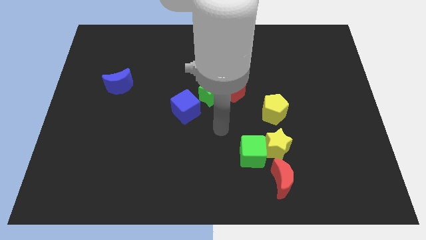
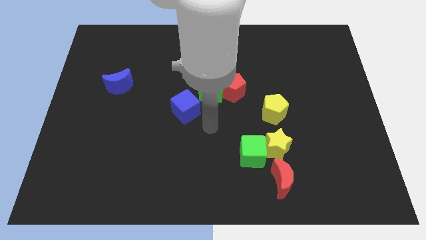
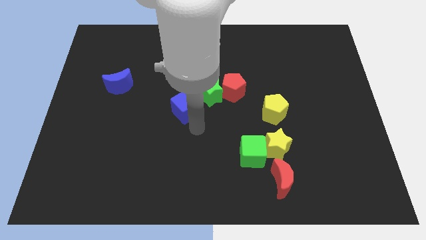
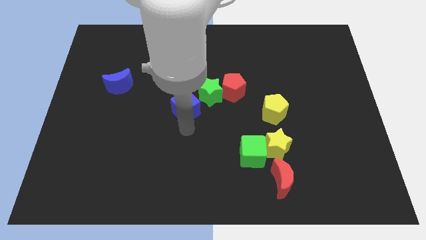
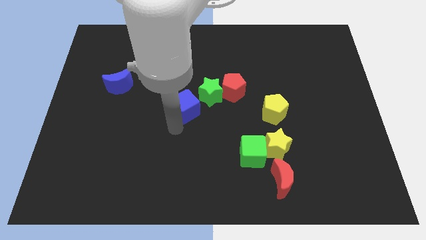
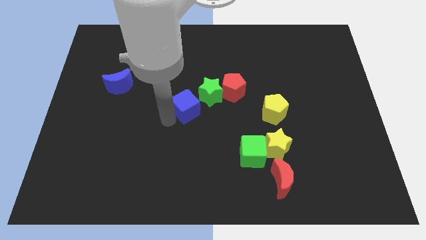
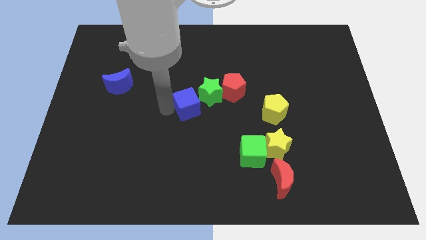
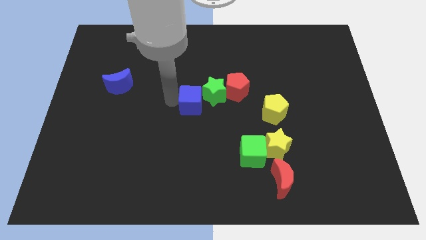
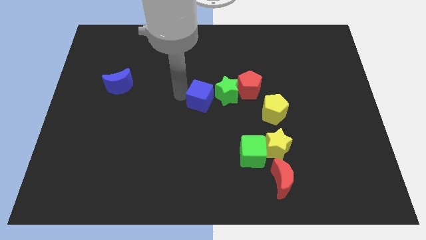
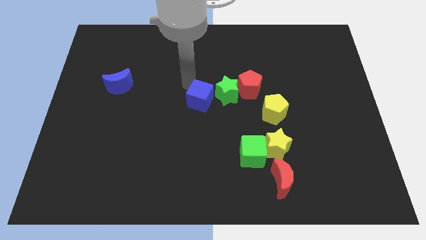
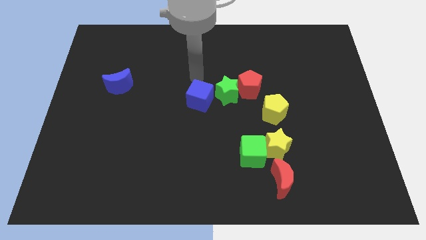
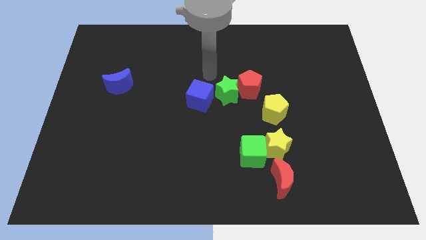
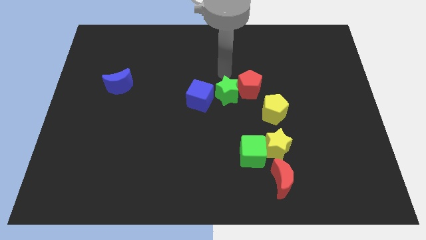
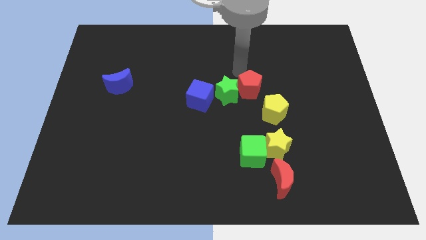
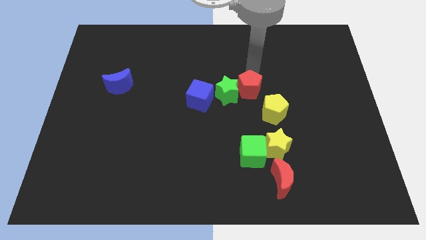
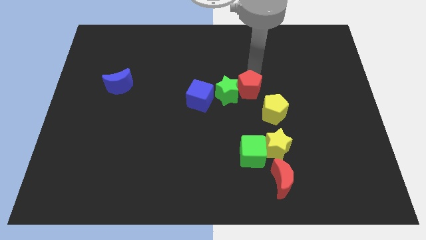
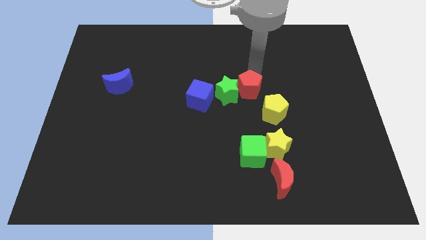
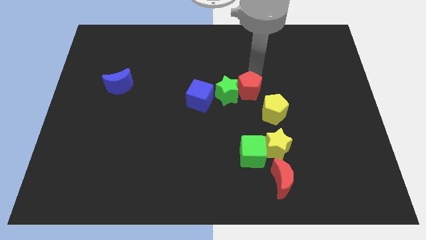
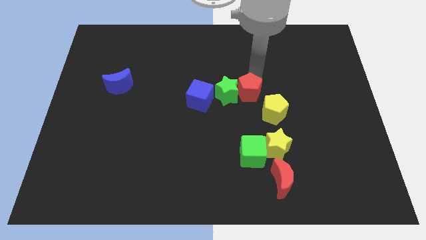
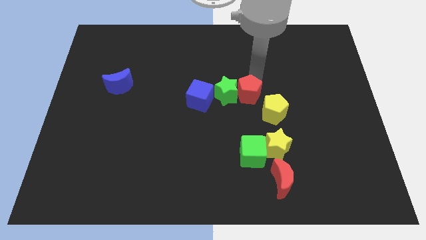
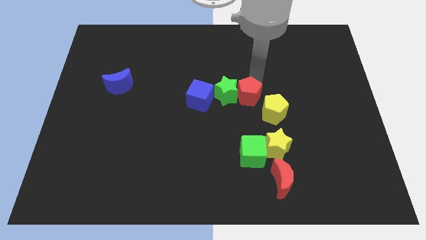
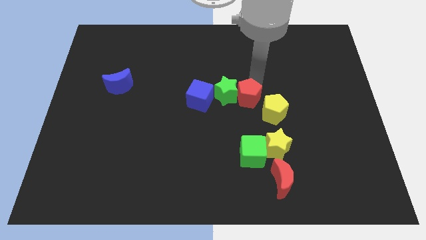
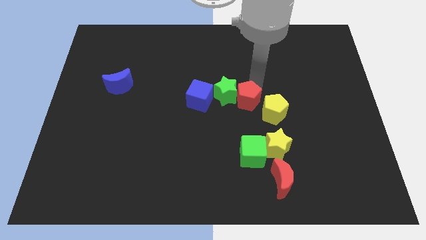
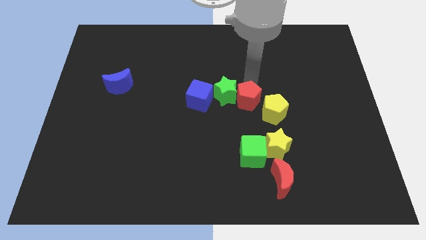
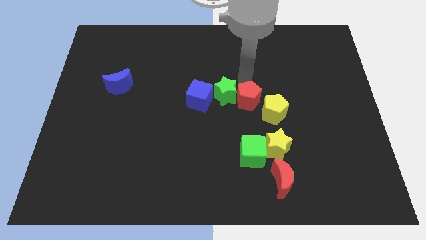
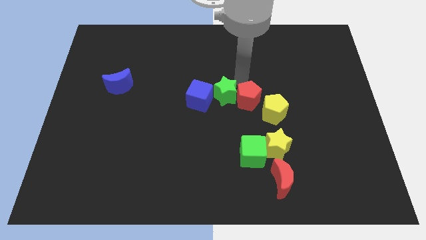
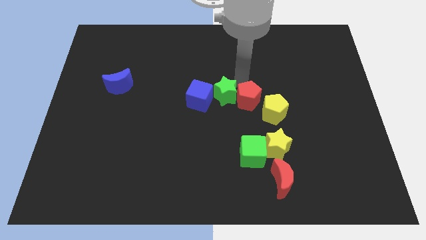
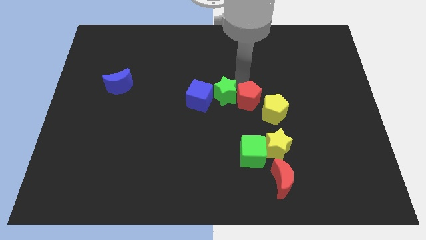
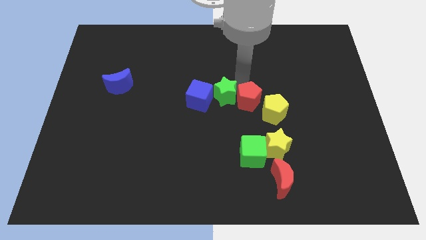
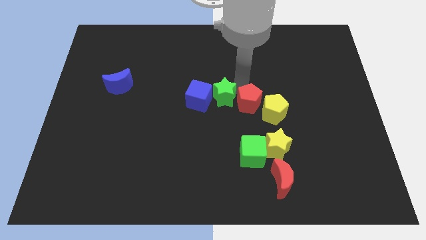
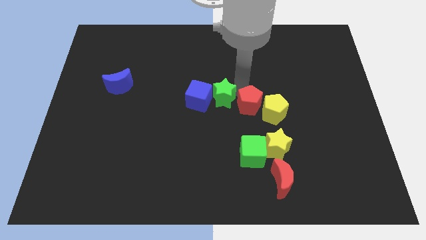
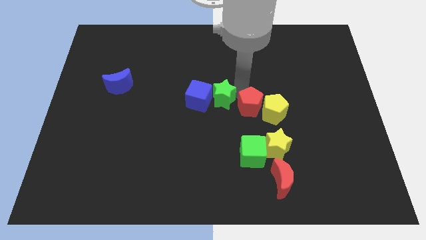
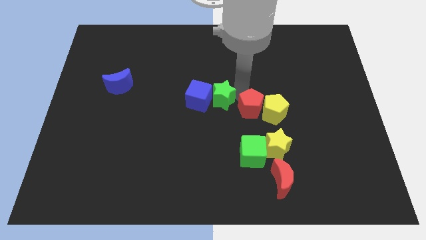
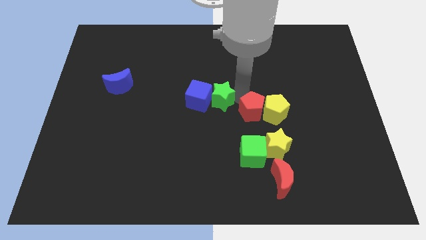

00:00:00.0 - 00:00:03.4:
push the red pentagon downwards and right slightly

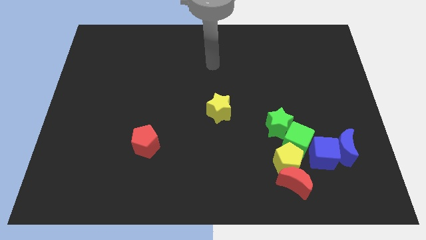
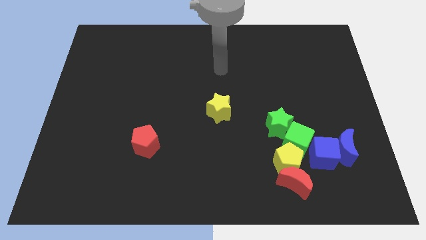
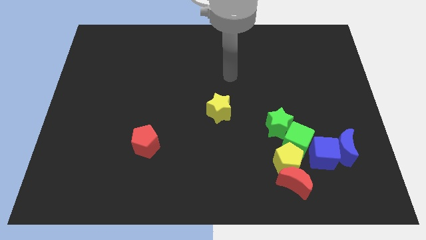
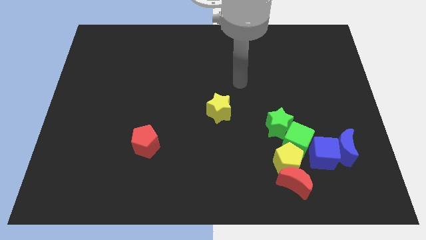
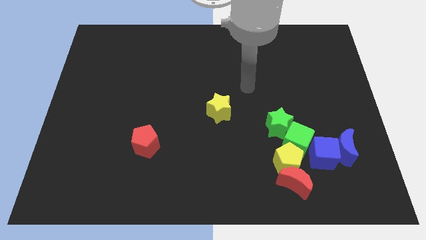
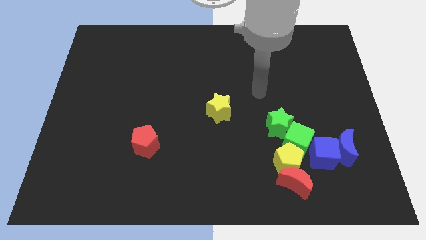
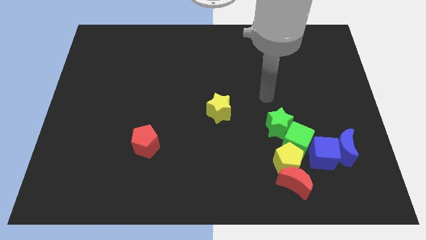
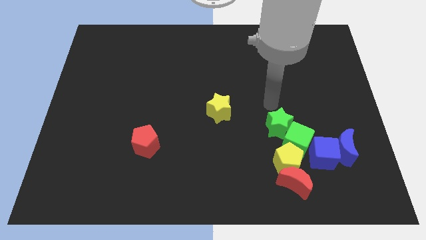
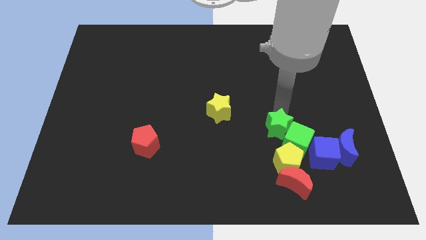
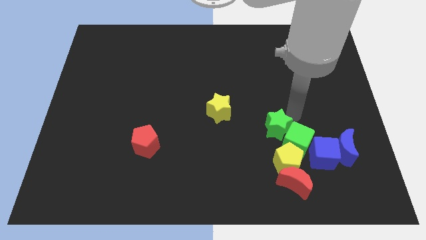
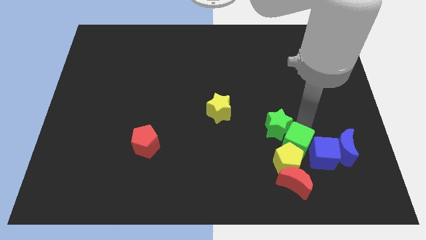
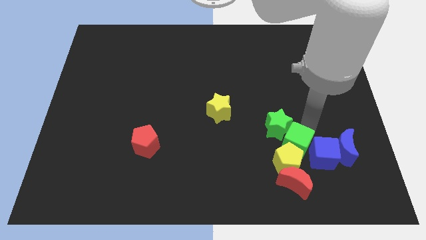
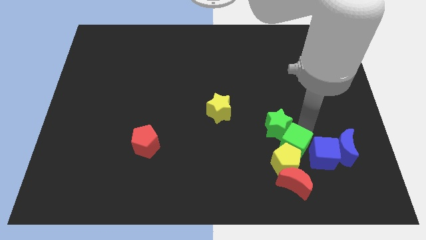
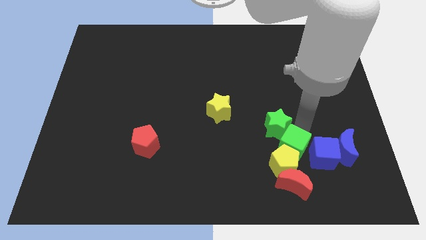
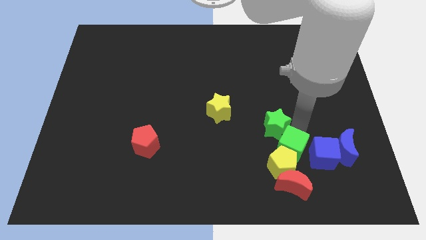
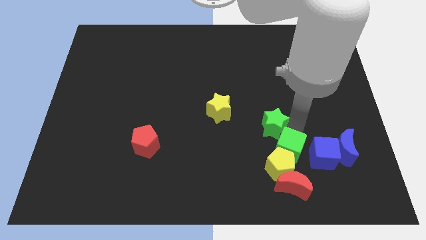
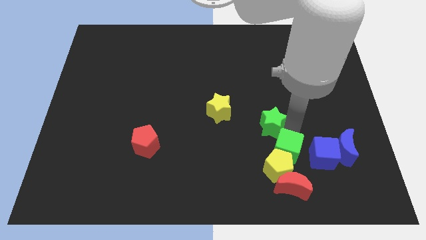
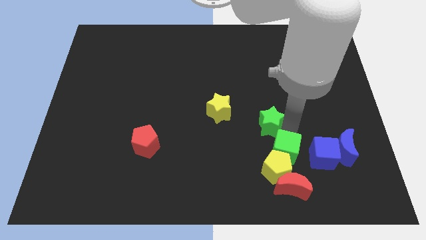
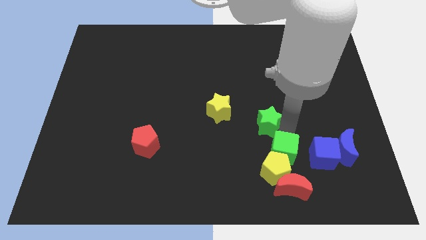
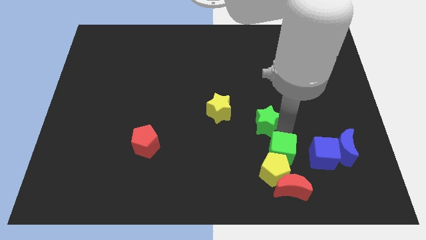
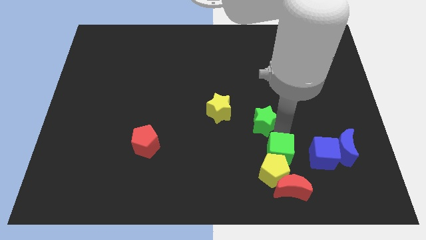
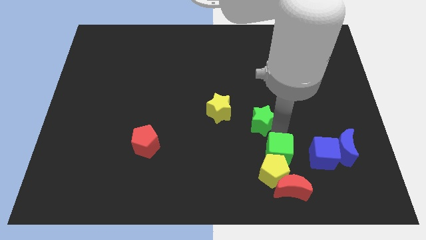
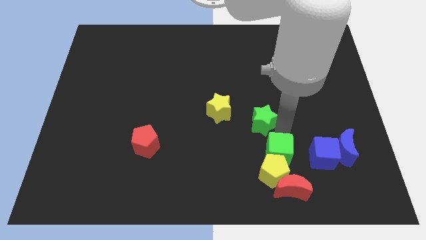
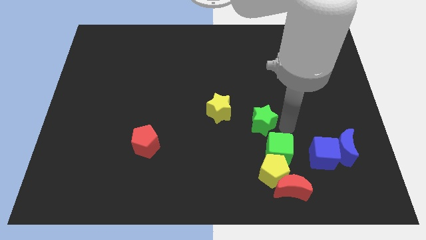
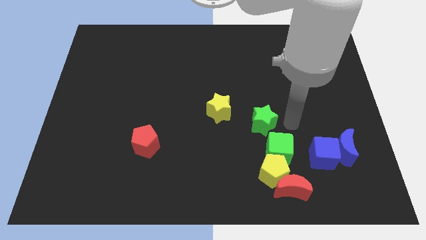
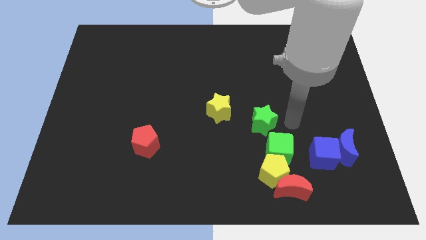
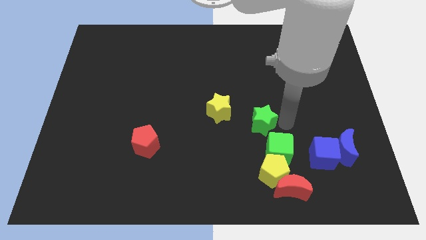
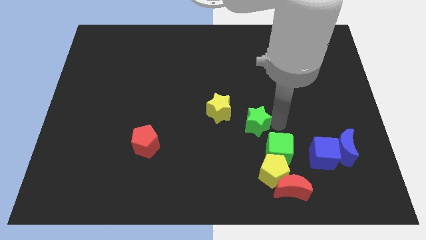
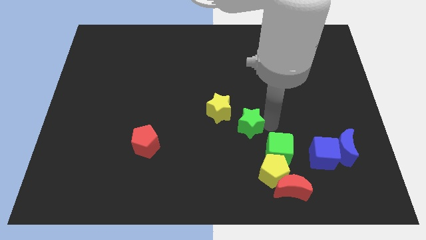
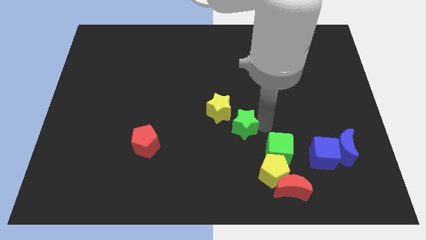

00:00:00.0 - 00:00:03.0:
move the green star a bit to the left

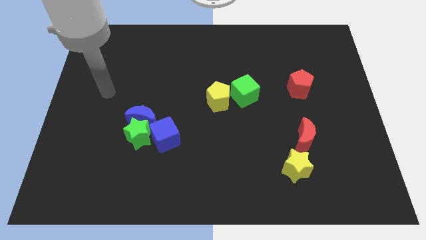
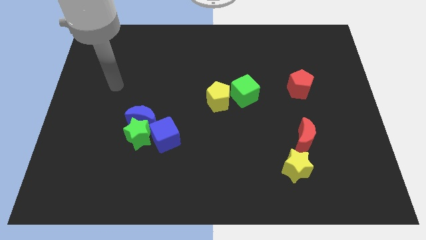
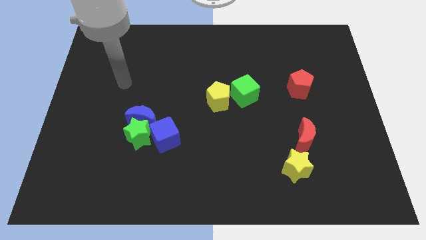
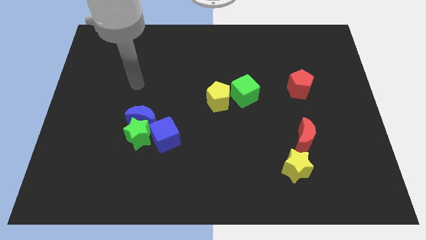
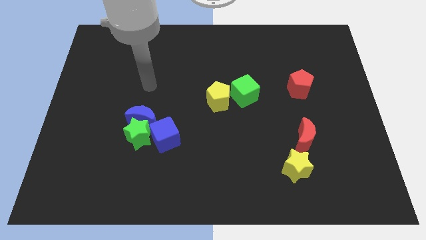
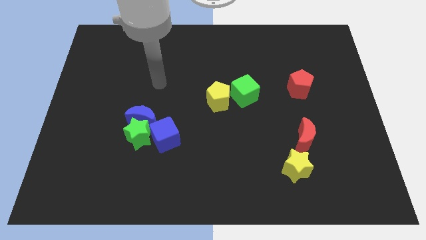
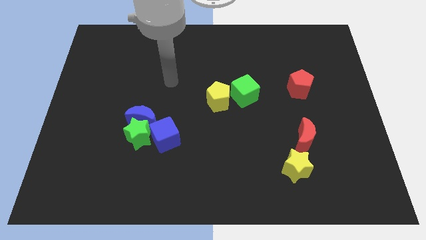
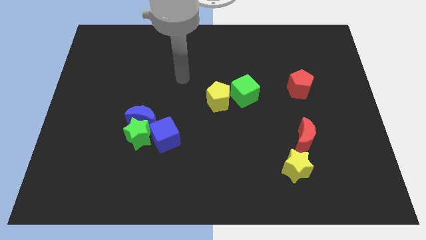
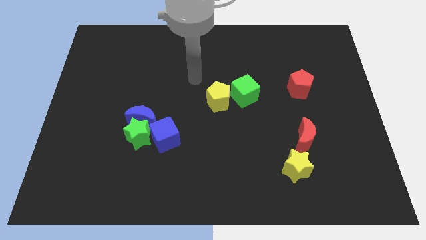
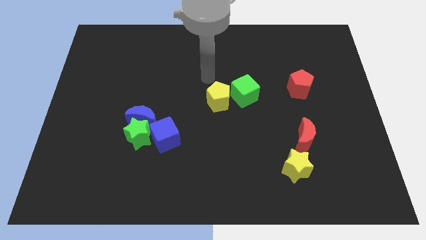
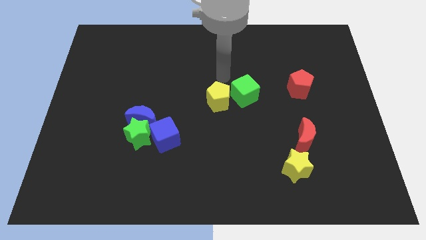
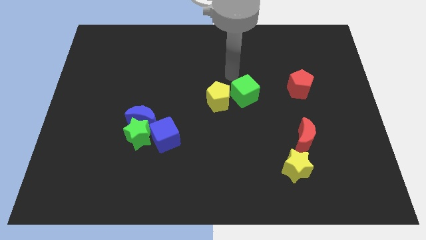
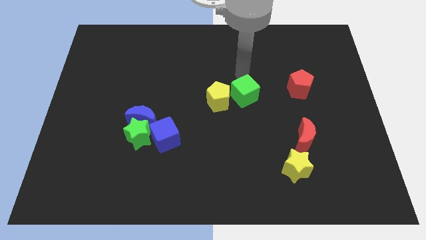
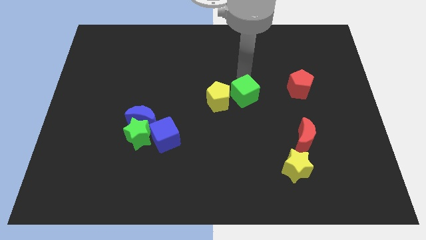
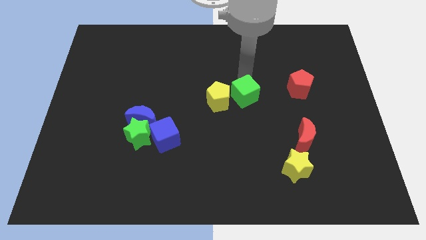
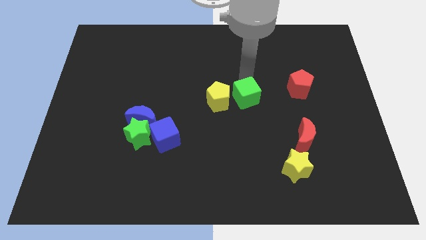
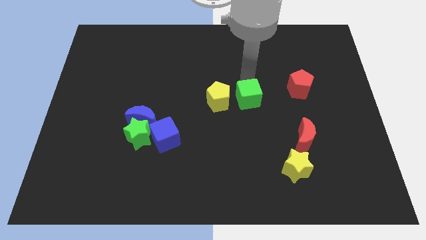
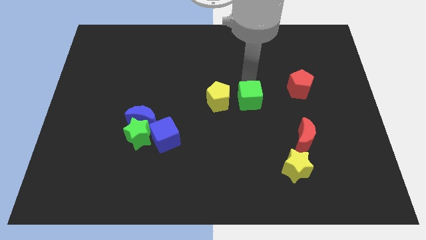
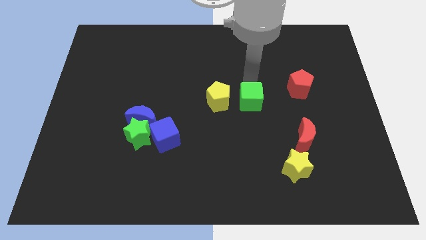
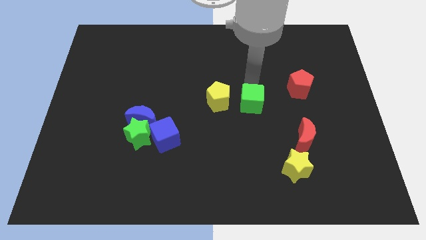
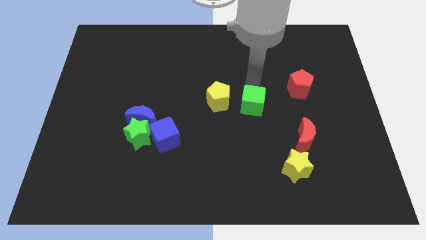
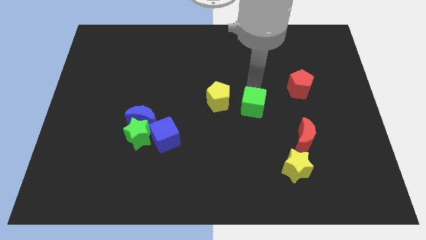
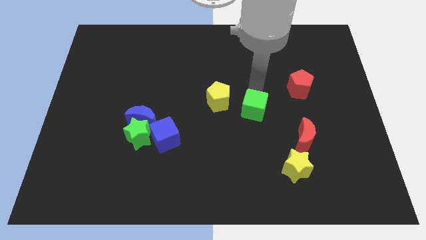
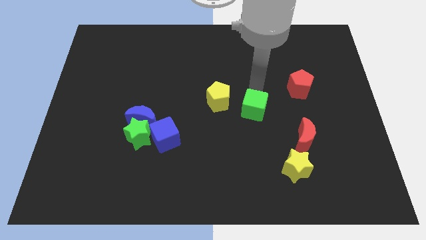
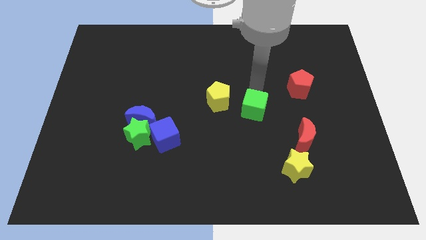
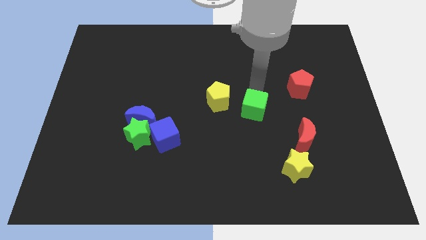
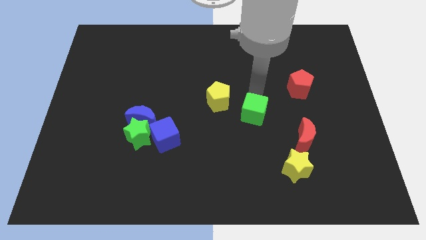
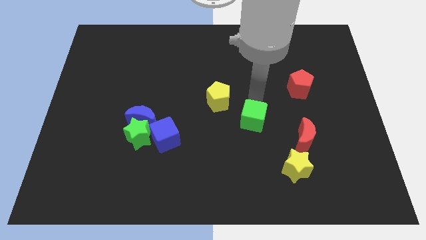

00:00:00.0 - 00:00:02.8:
slightly push the green cube down
